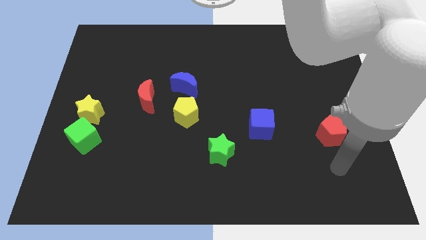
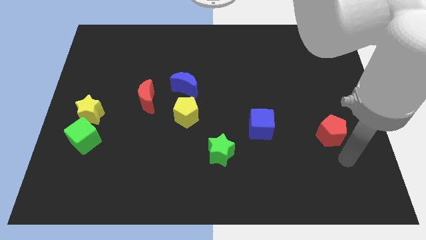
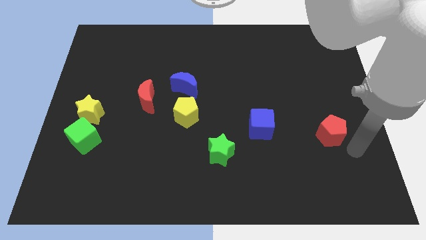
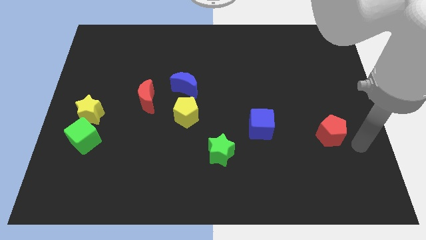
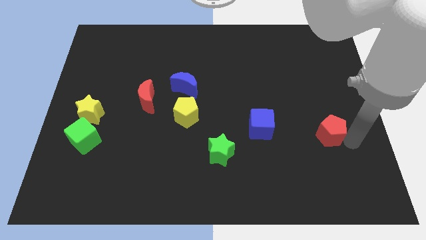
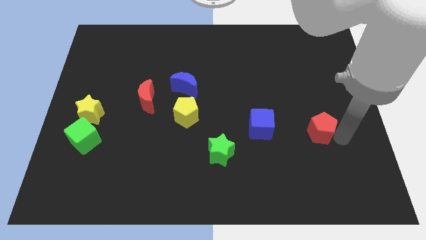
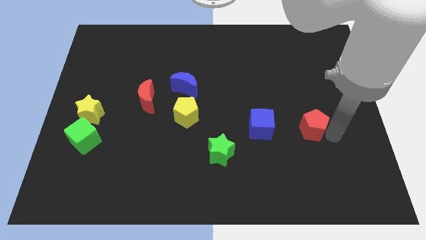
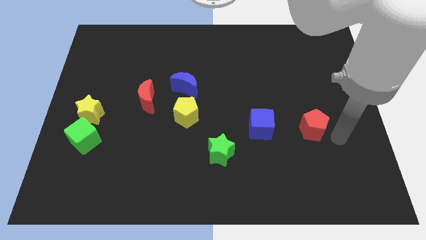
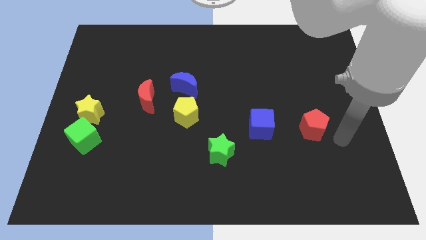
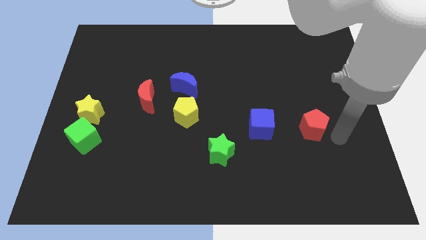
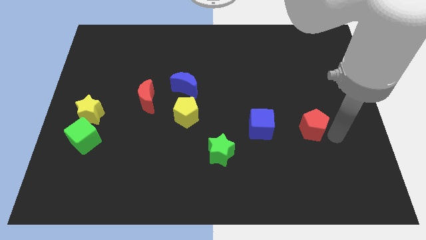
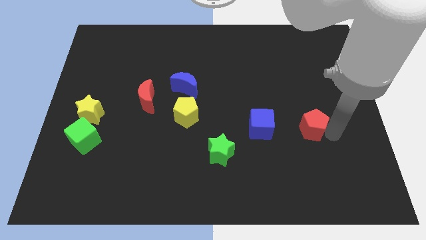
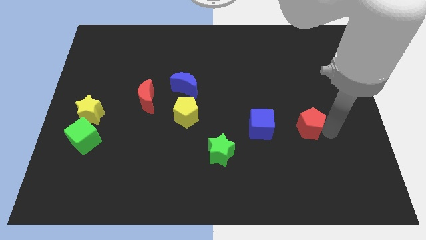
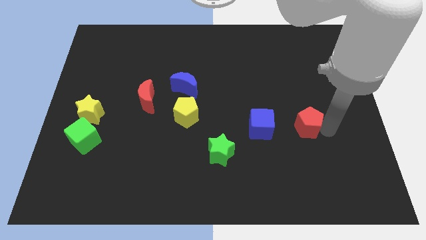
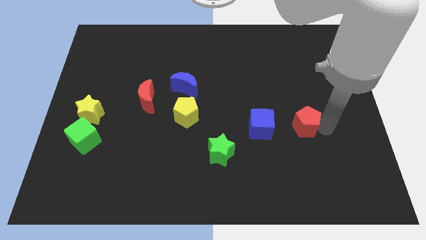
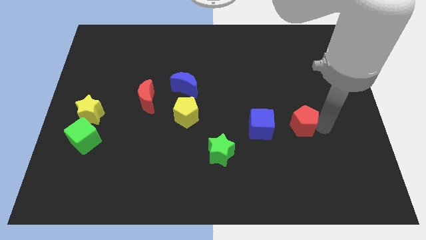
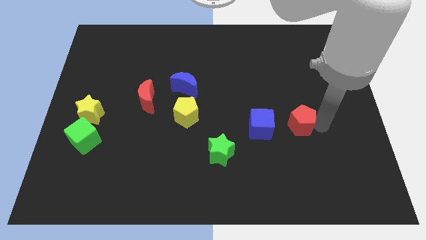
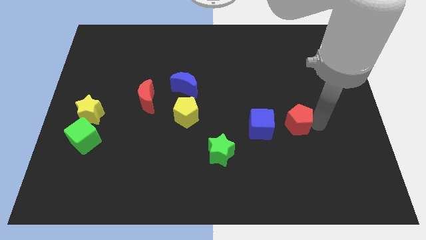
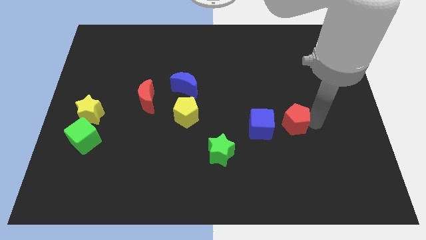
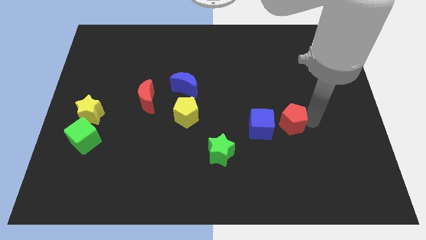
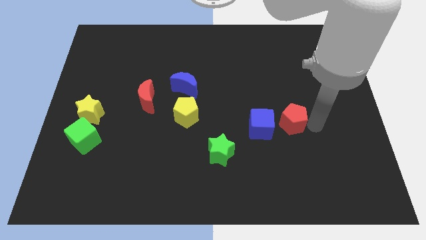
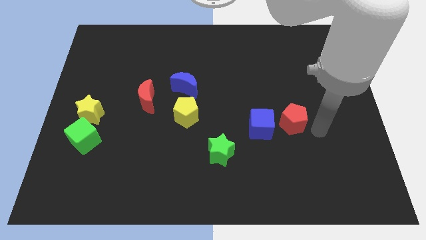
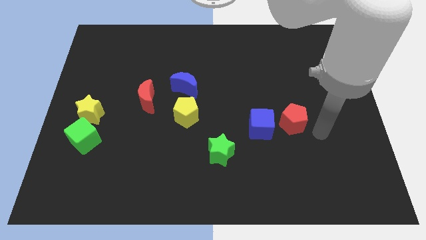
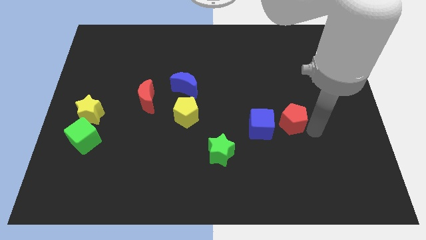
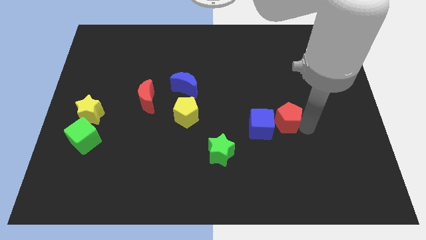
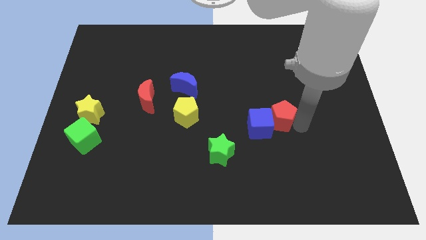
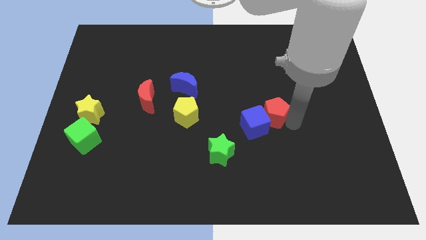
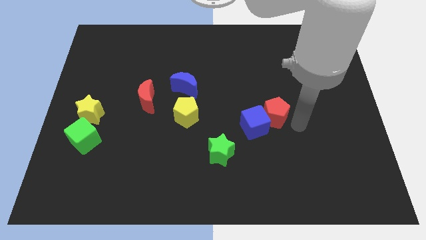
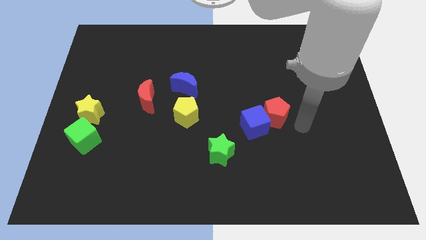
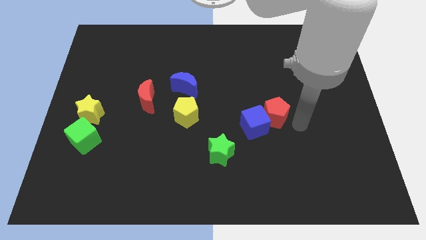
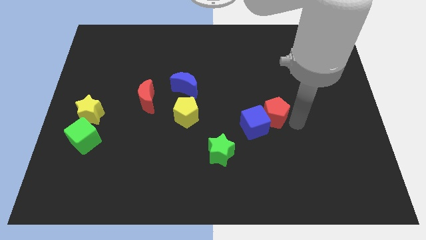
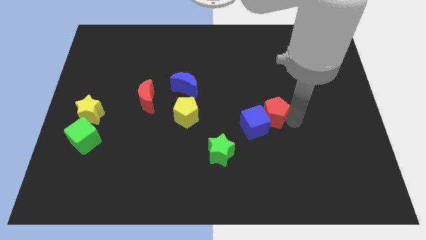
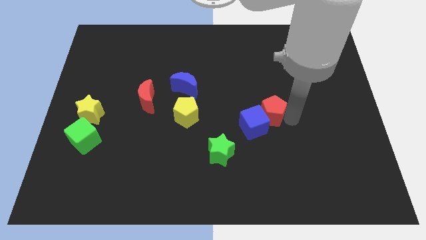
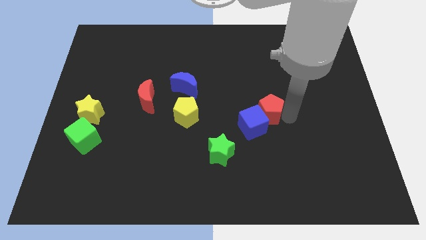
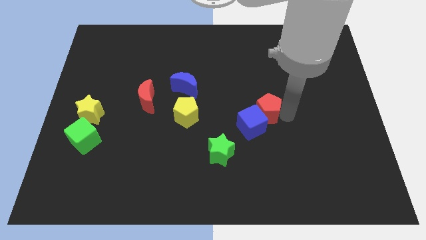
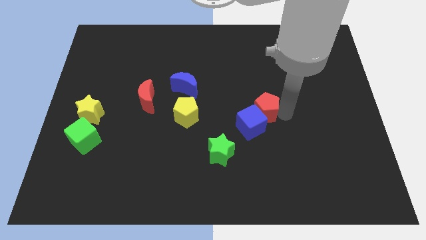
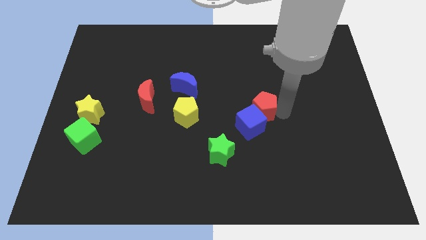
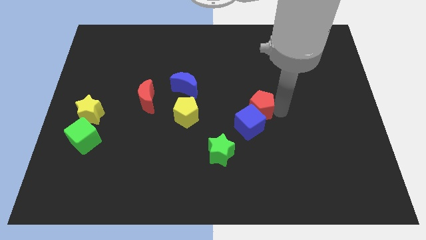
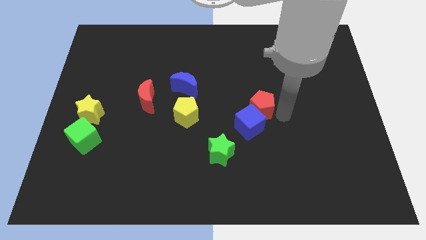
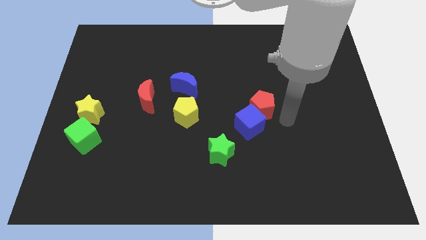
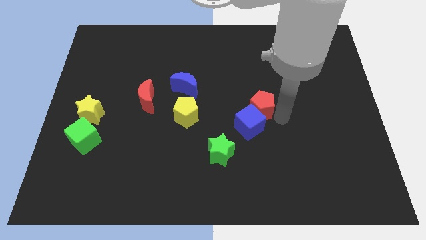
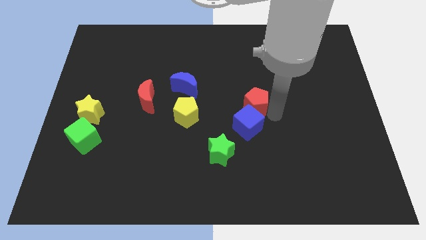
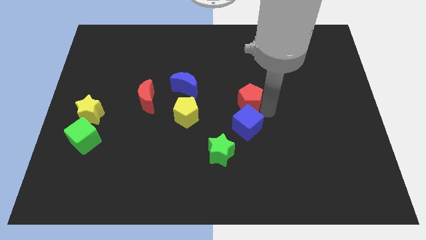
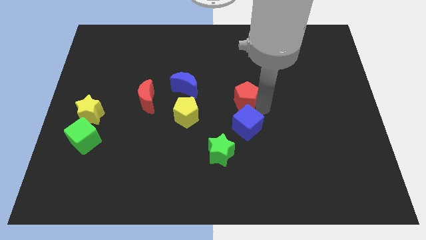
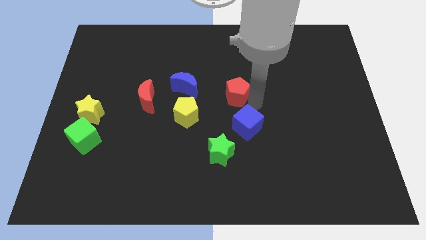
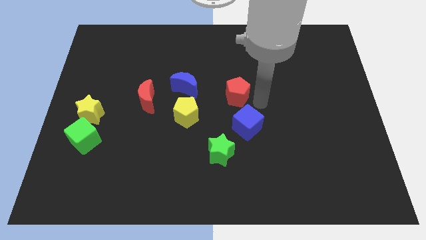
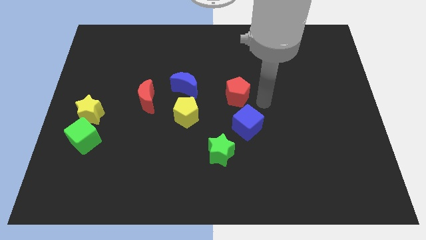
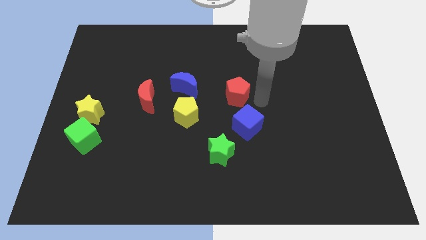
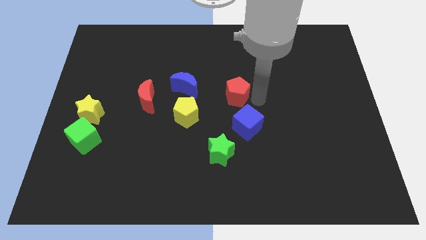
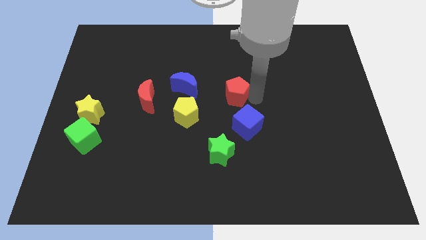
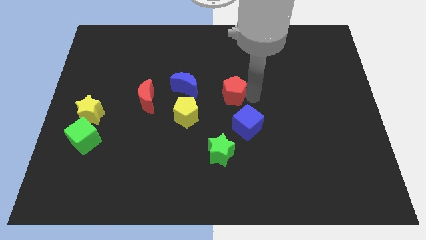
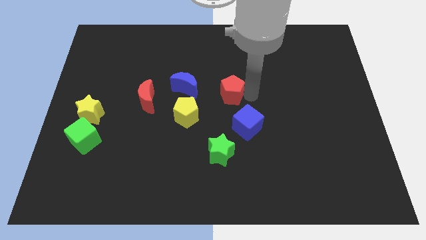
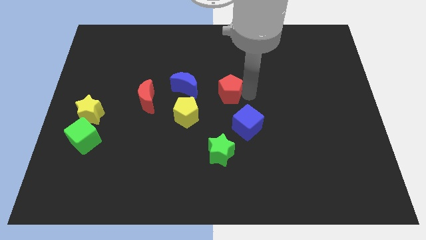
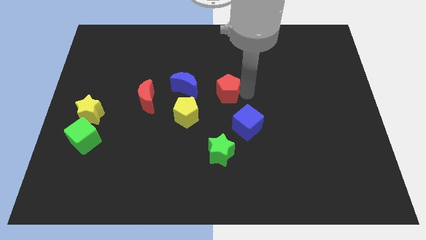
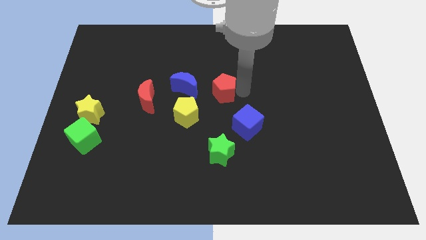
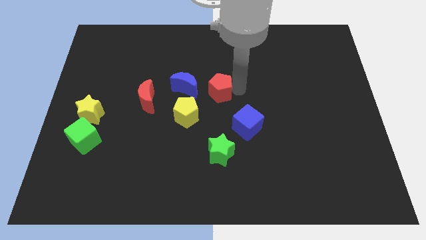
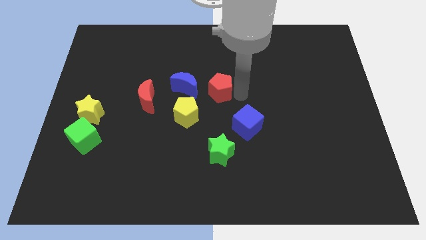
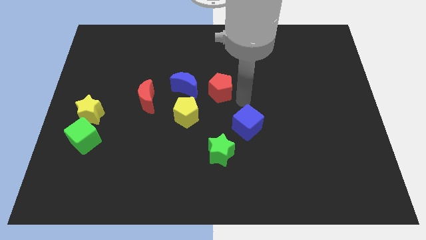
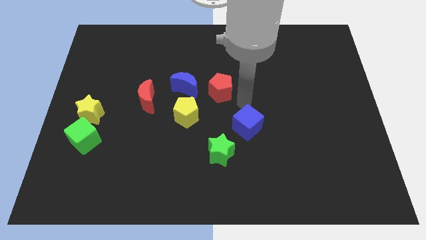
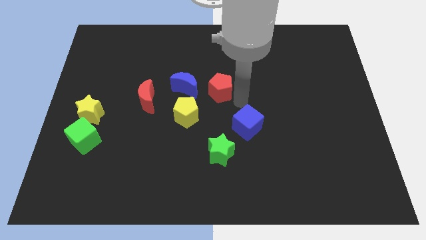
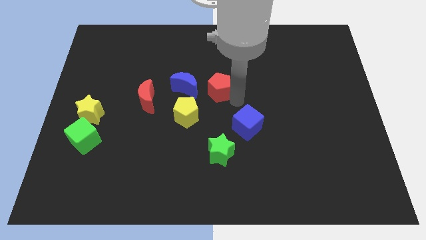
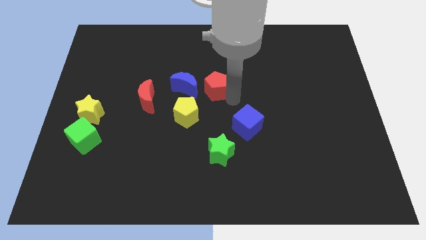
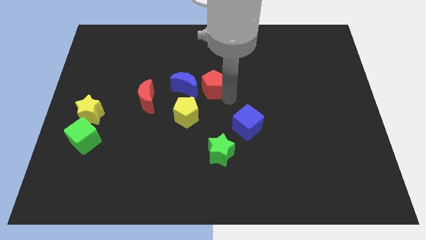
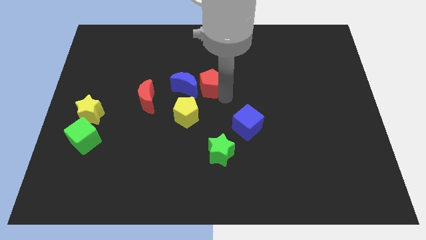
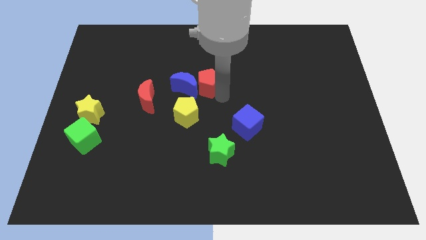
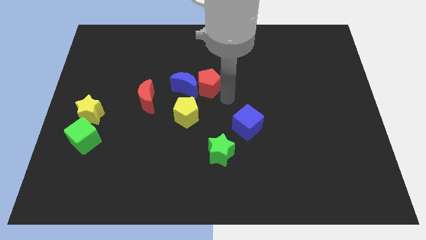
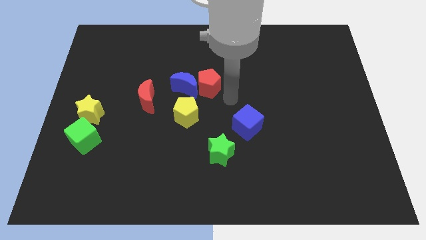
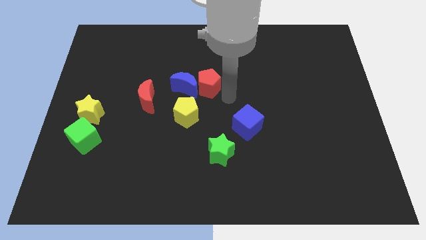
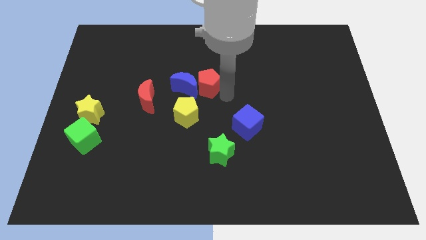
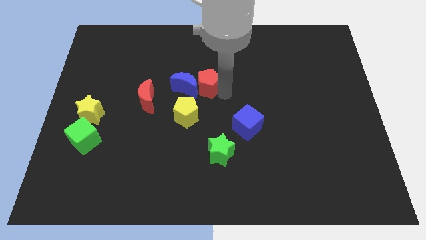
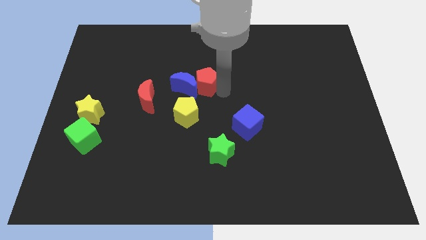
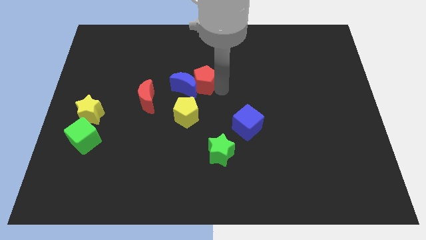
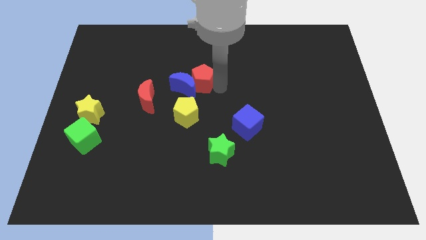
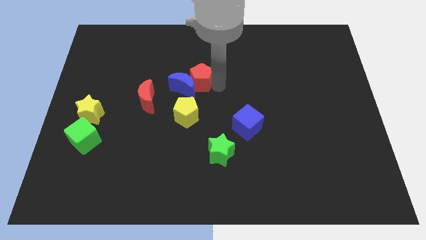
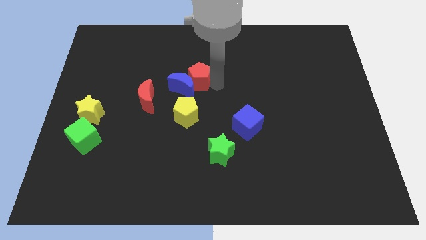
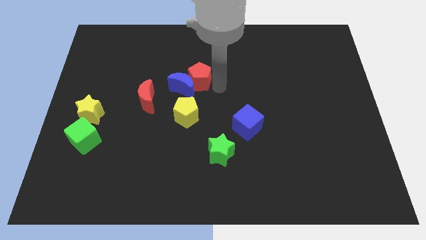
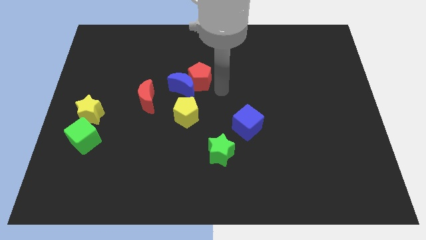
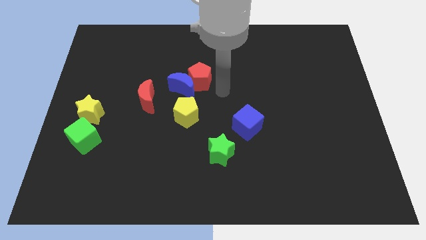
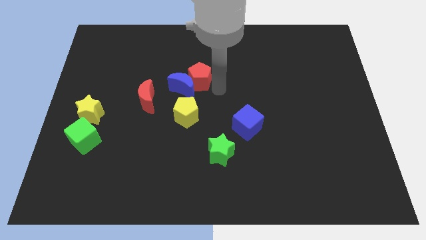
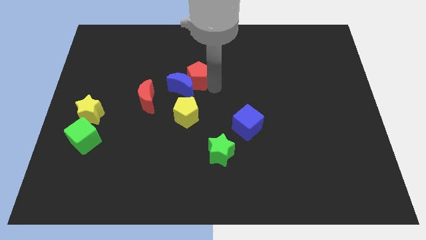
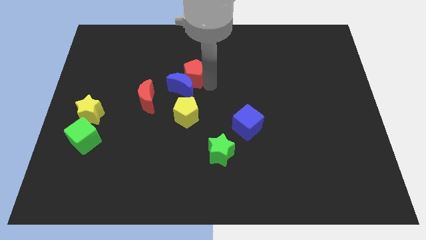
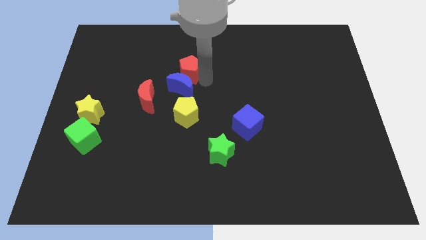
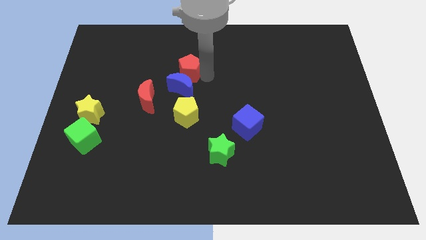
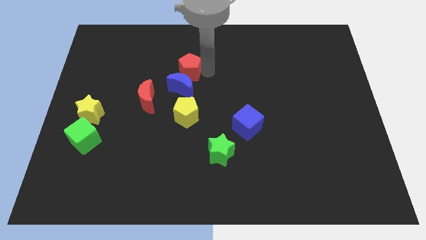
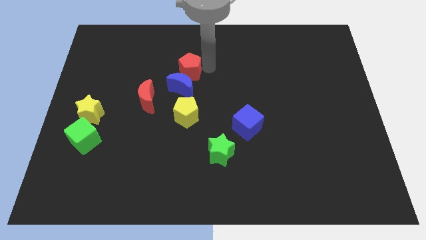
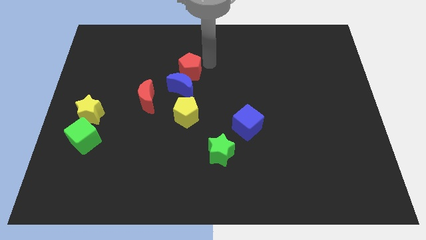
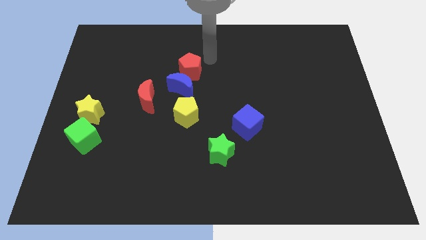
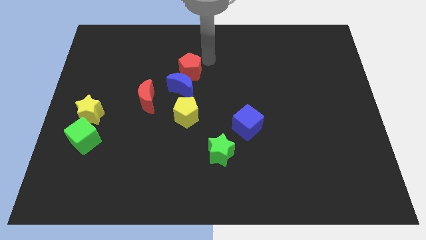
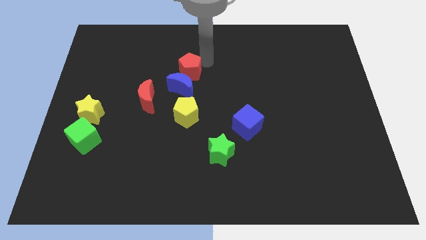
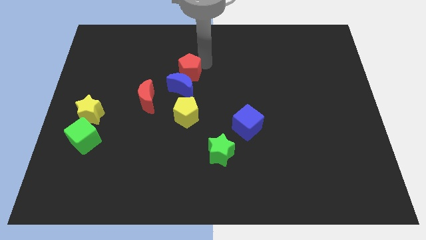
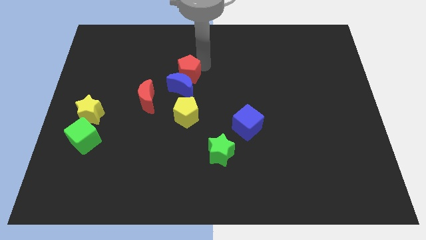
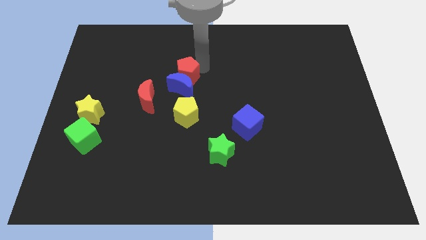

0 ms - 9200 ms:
put the red pentagon to the top right side of the red moon
